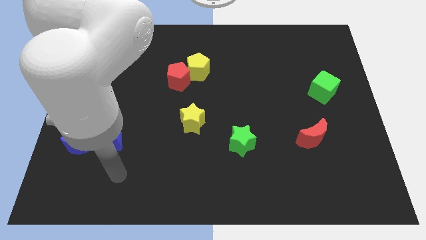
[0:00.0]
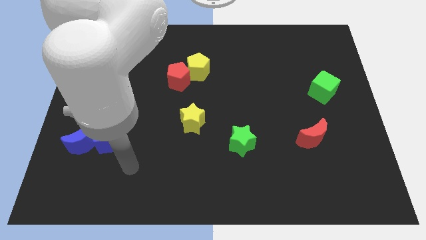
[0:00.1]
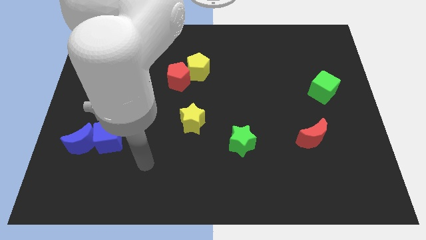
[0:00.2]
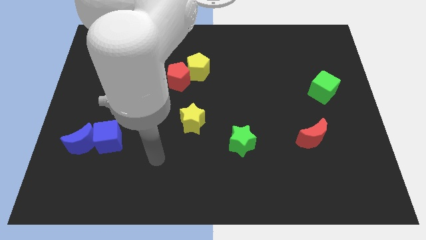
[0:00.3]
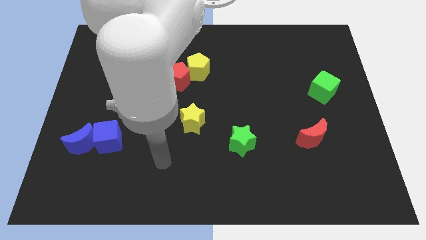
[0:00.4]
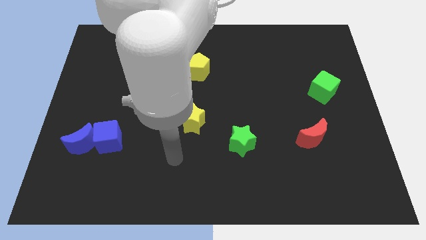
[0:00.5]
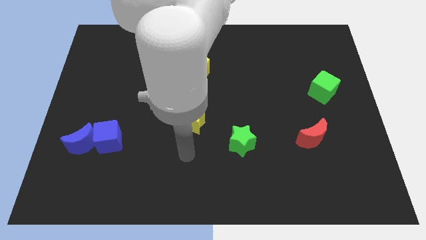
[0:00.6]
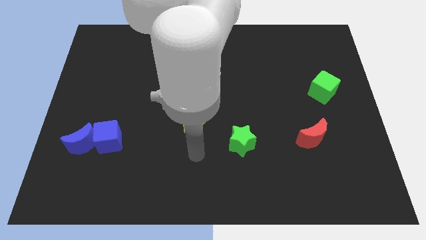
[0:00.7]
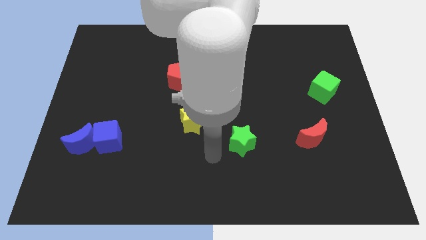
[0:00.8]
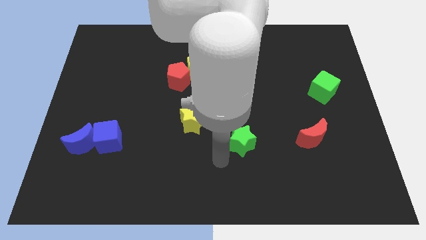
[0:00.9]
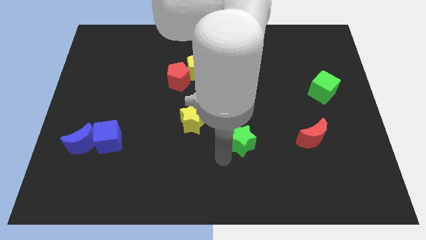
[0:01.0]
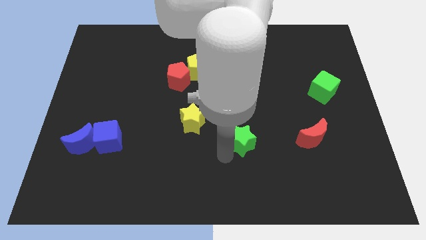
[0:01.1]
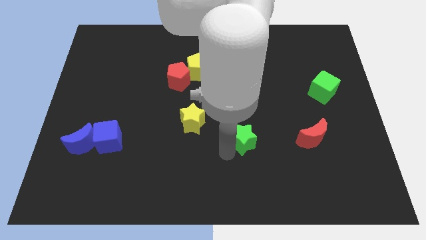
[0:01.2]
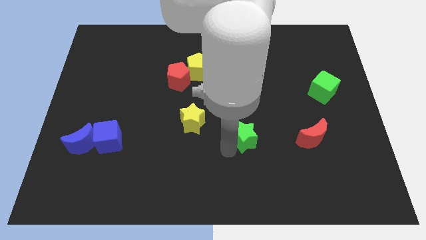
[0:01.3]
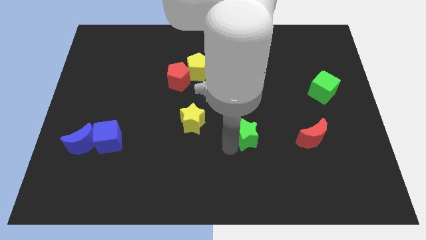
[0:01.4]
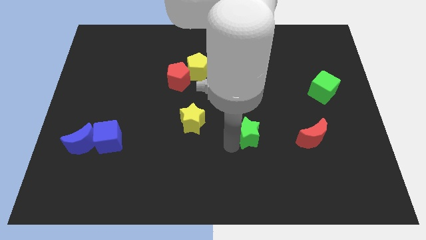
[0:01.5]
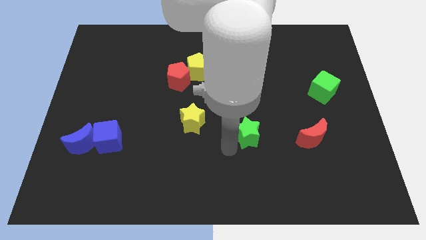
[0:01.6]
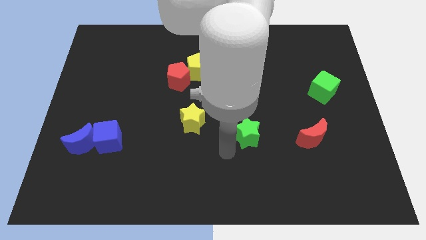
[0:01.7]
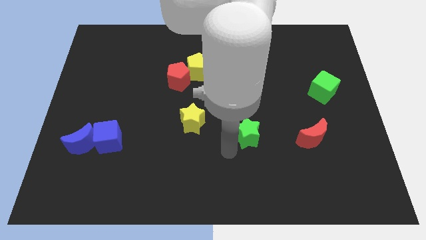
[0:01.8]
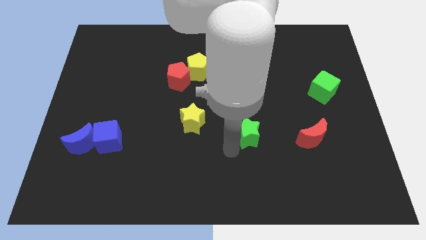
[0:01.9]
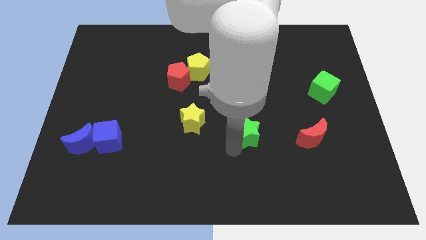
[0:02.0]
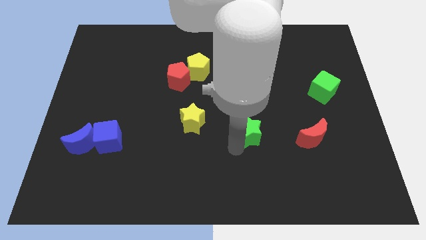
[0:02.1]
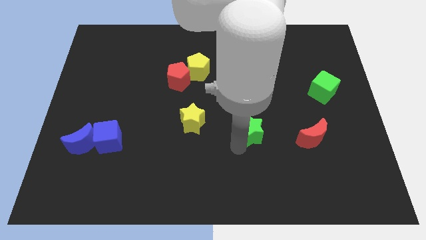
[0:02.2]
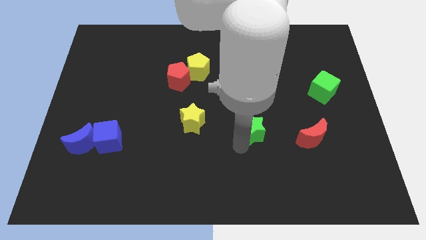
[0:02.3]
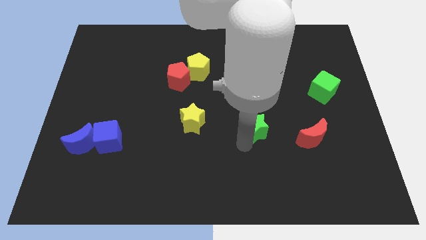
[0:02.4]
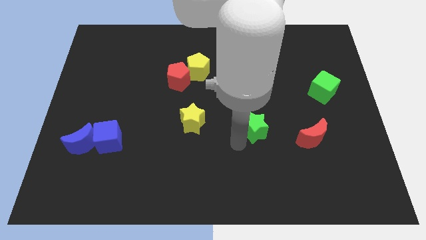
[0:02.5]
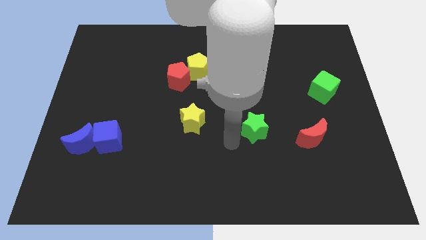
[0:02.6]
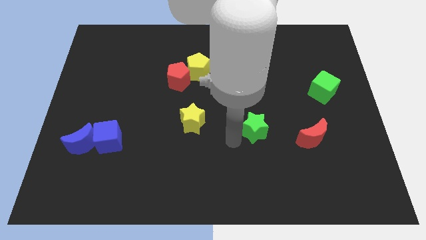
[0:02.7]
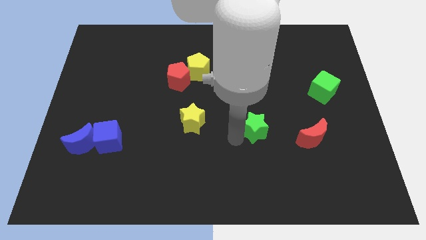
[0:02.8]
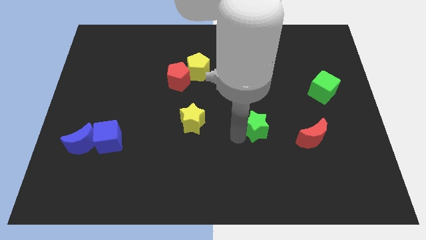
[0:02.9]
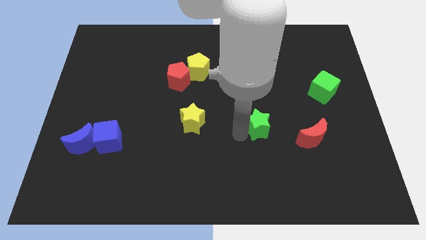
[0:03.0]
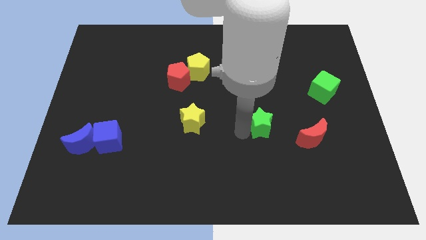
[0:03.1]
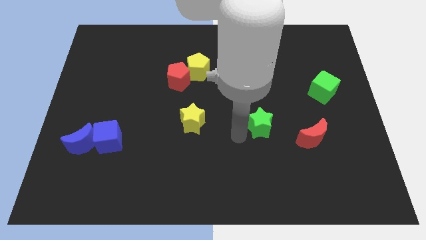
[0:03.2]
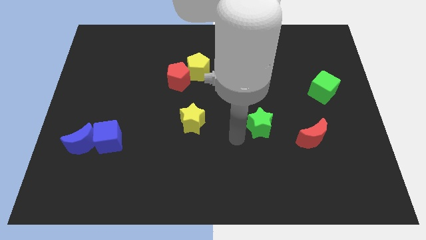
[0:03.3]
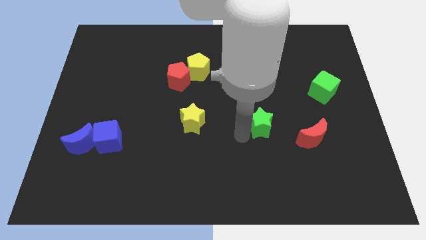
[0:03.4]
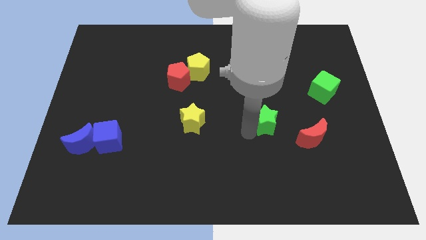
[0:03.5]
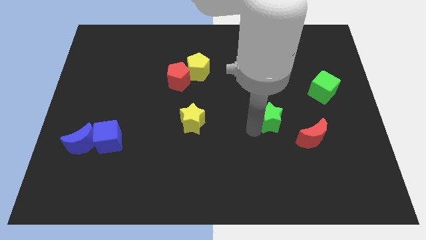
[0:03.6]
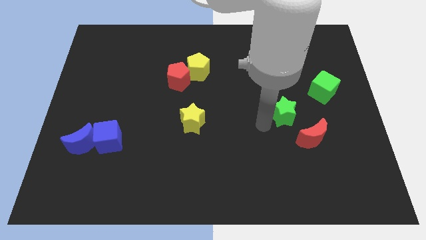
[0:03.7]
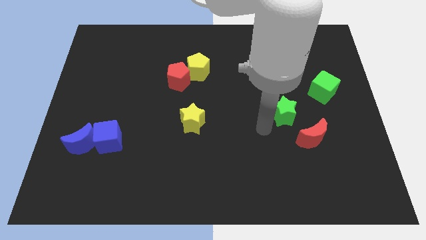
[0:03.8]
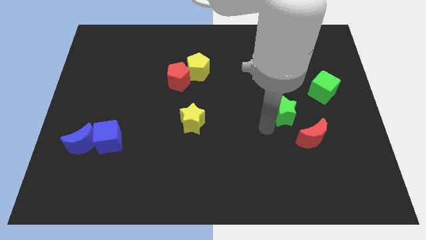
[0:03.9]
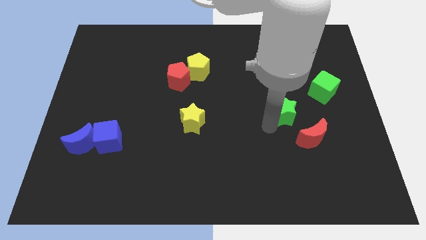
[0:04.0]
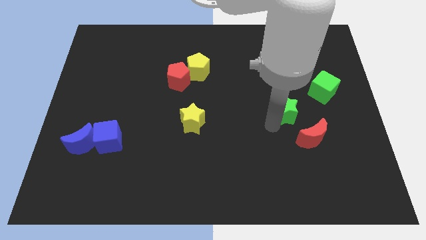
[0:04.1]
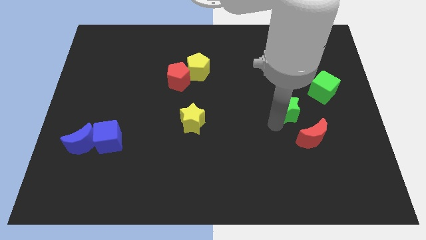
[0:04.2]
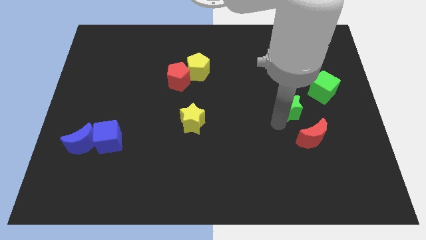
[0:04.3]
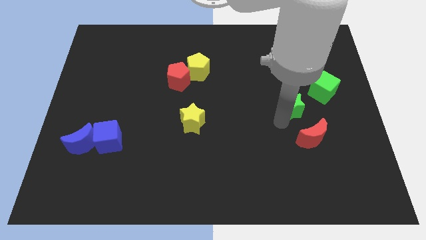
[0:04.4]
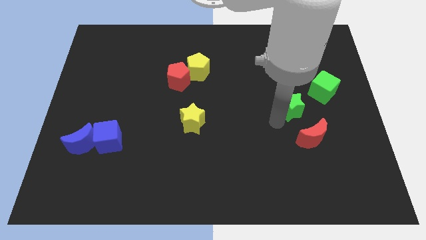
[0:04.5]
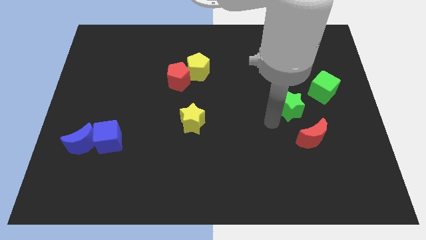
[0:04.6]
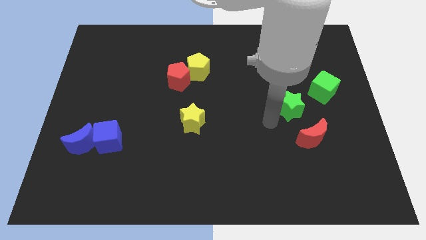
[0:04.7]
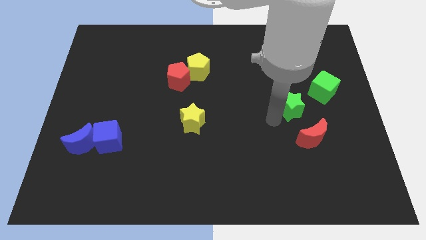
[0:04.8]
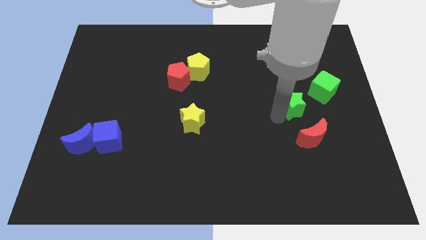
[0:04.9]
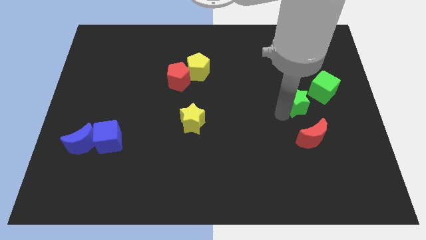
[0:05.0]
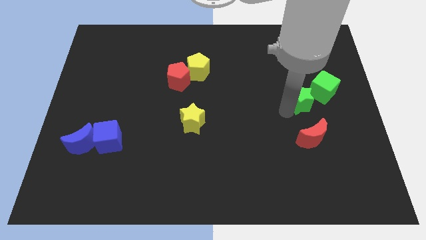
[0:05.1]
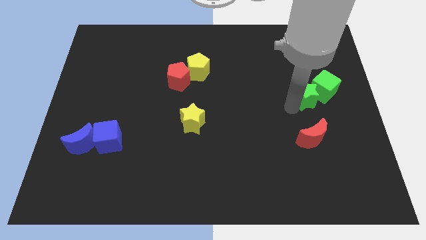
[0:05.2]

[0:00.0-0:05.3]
put the green star to the green cube

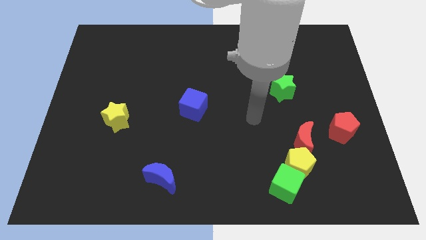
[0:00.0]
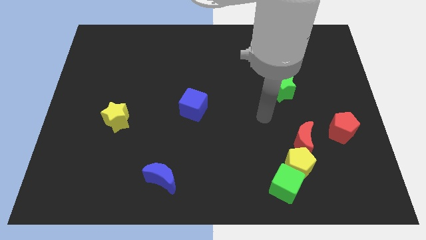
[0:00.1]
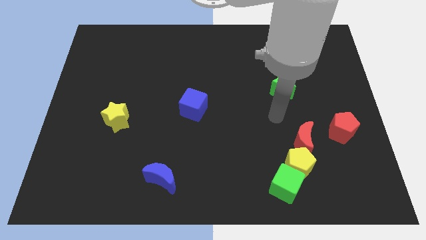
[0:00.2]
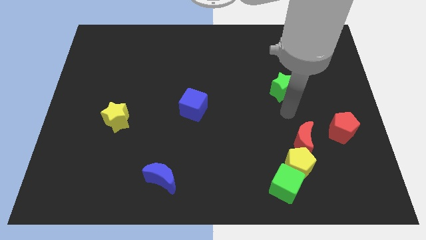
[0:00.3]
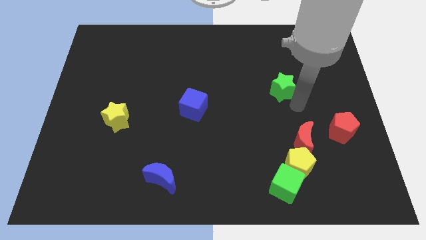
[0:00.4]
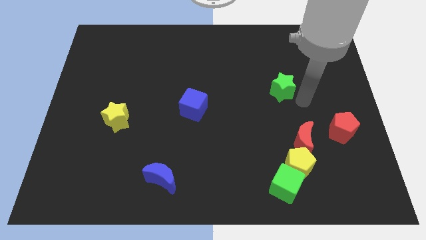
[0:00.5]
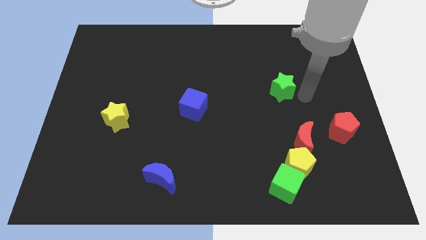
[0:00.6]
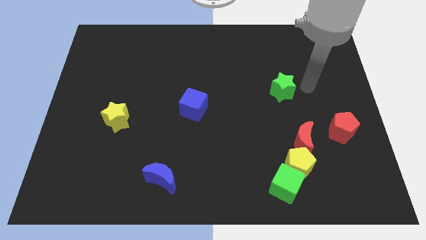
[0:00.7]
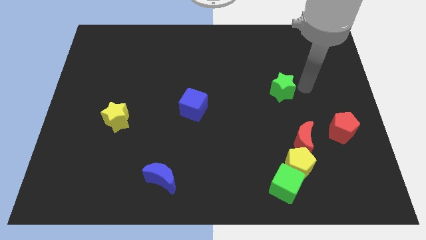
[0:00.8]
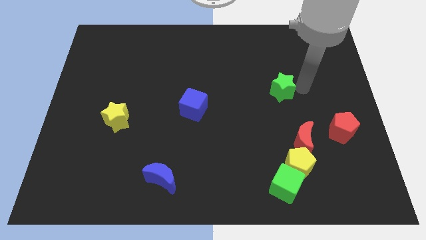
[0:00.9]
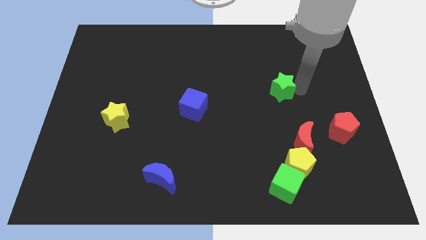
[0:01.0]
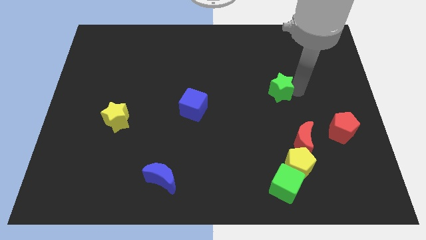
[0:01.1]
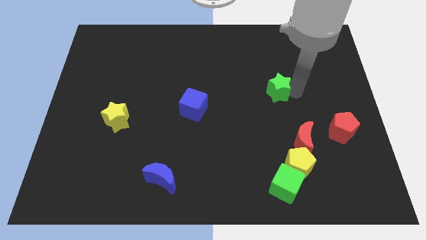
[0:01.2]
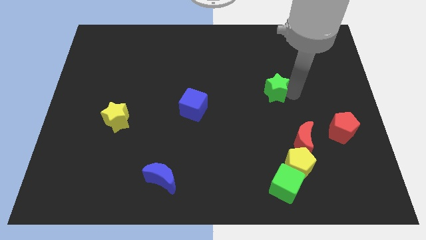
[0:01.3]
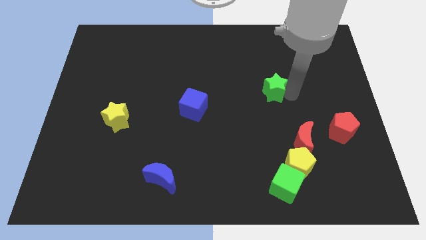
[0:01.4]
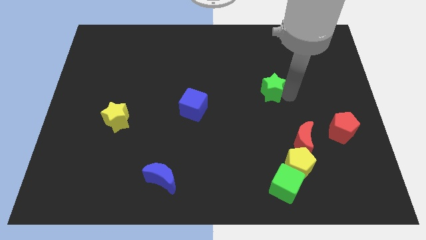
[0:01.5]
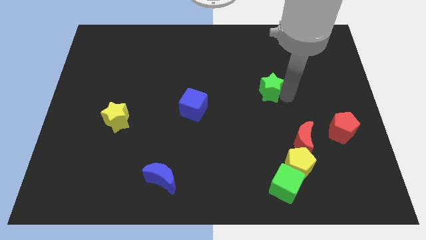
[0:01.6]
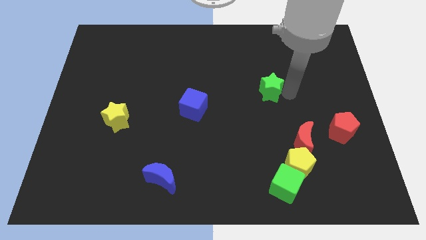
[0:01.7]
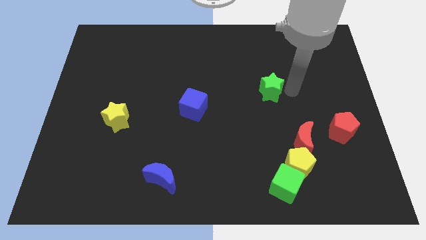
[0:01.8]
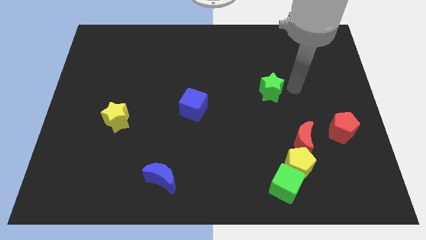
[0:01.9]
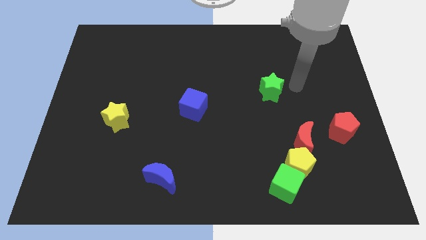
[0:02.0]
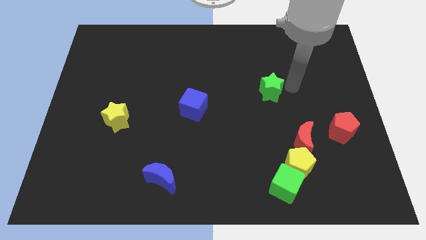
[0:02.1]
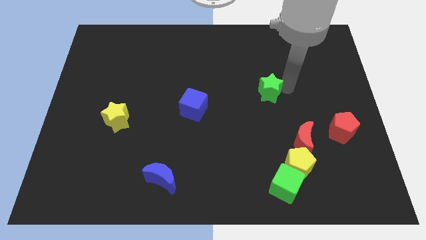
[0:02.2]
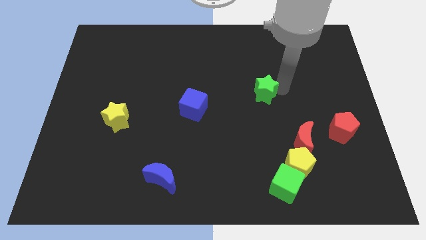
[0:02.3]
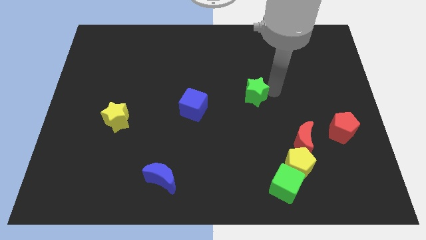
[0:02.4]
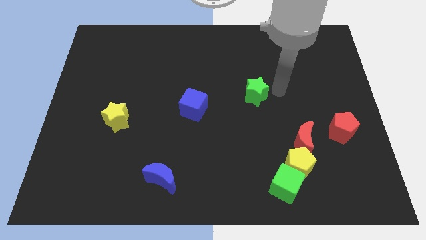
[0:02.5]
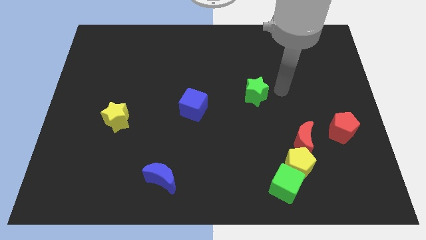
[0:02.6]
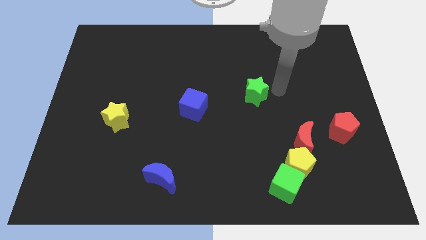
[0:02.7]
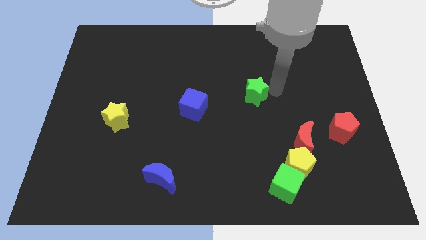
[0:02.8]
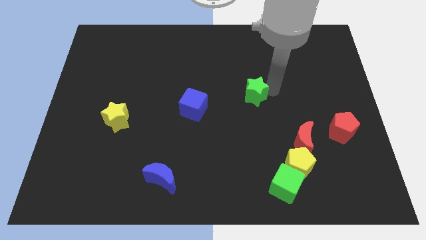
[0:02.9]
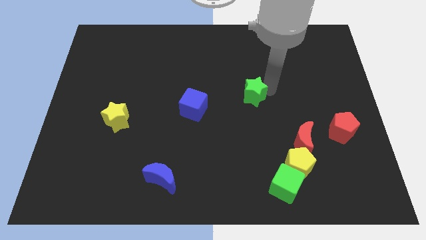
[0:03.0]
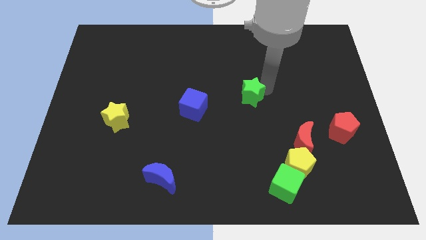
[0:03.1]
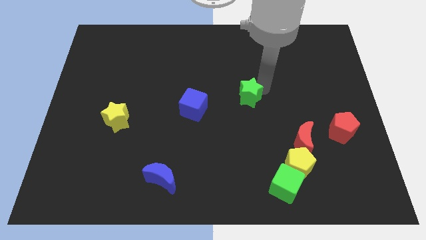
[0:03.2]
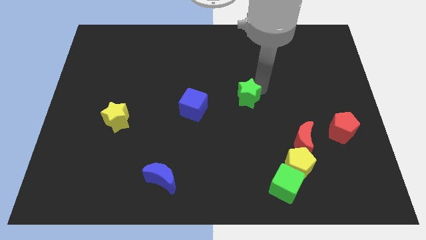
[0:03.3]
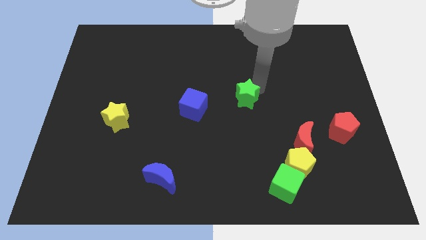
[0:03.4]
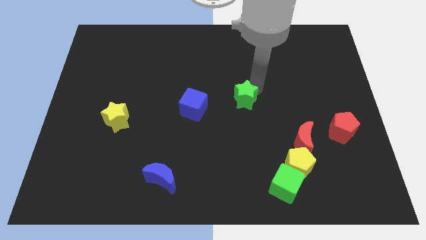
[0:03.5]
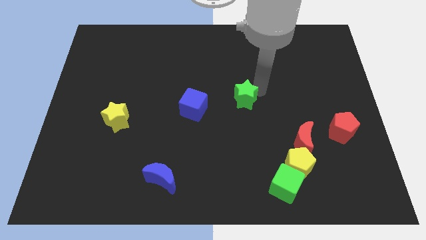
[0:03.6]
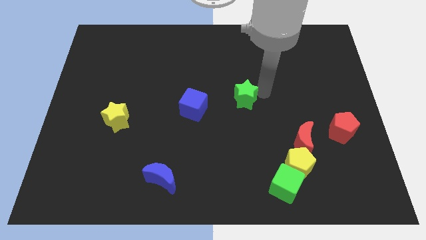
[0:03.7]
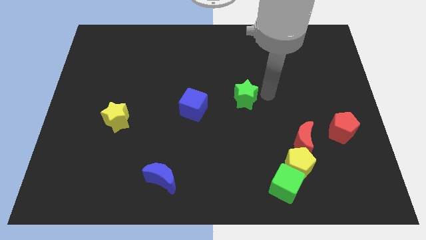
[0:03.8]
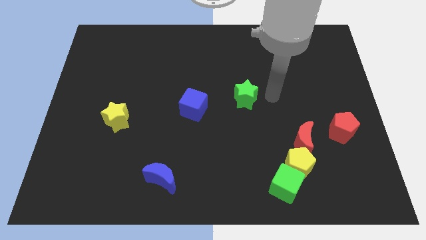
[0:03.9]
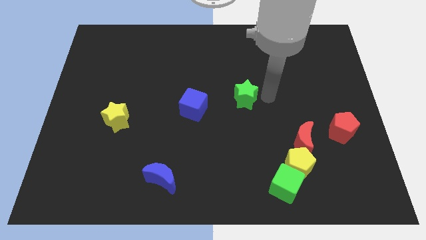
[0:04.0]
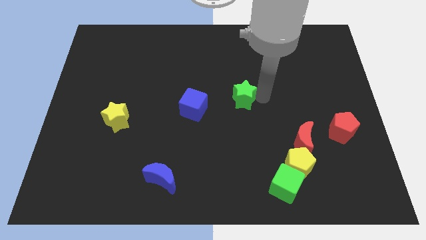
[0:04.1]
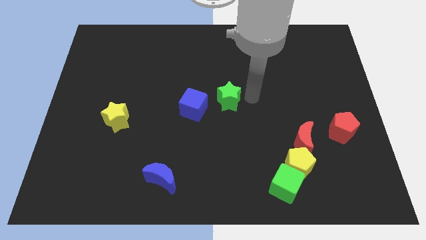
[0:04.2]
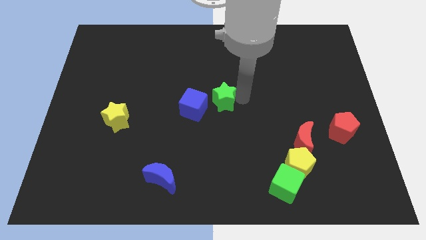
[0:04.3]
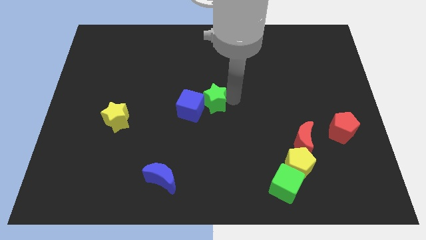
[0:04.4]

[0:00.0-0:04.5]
put the green star towards the blue cube
